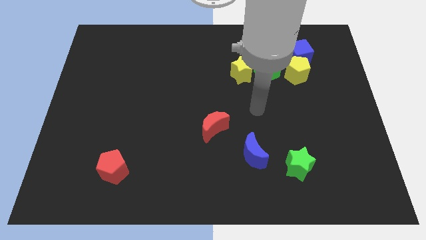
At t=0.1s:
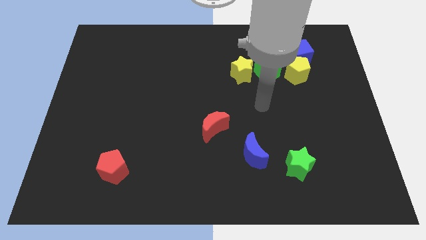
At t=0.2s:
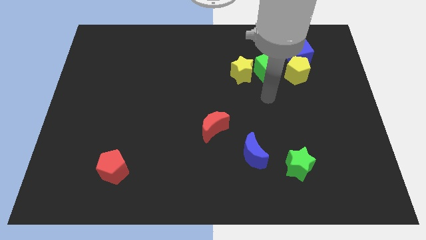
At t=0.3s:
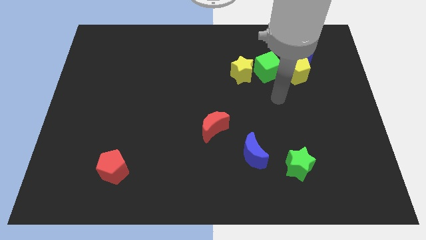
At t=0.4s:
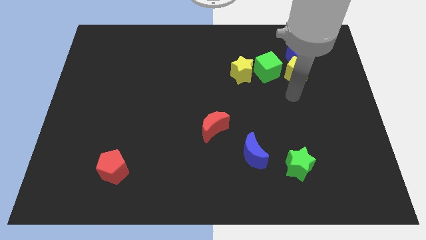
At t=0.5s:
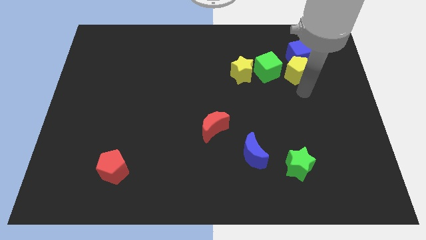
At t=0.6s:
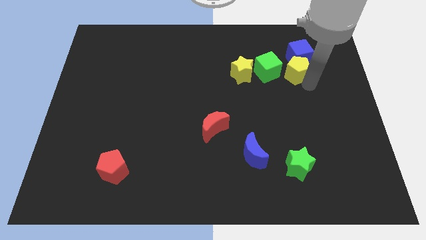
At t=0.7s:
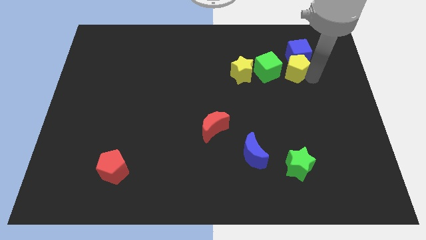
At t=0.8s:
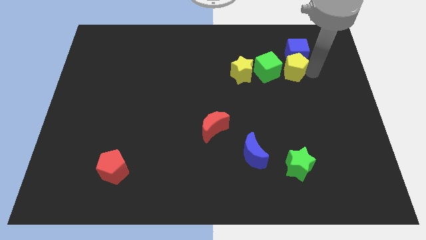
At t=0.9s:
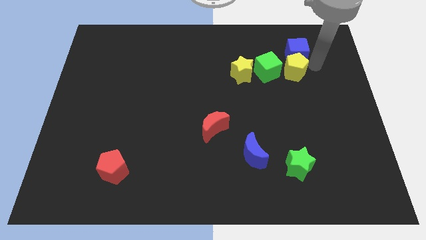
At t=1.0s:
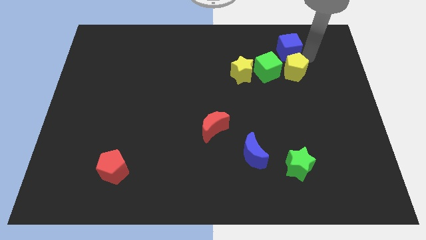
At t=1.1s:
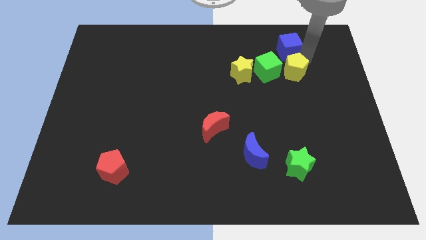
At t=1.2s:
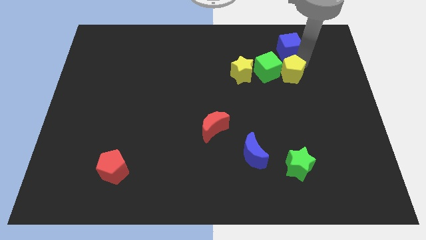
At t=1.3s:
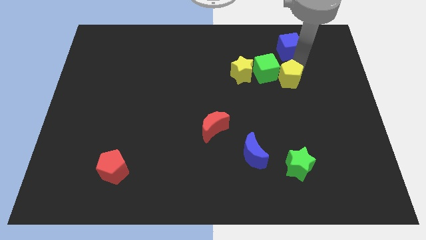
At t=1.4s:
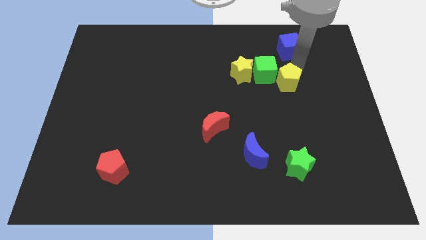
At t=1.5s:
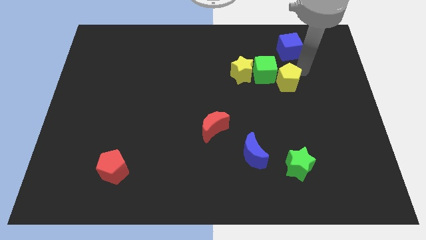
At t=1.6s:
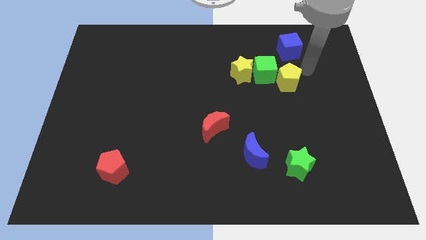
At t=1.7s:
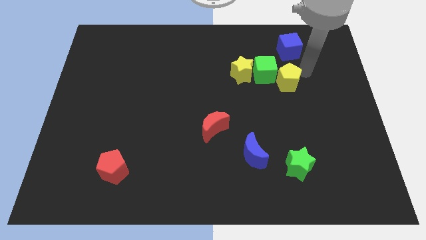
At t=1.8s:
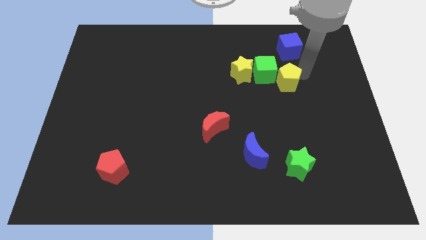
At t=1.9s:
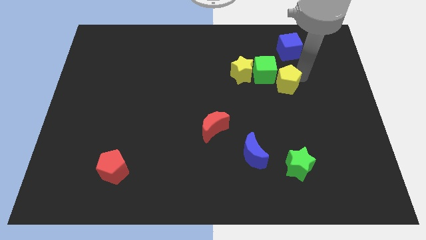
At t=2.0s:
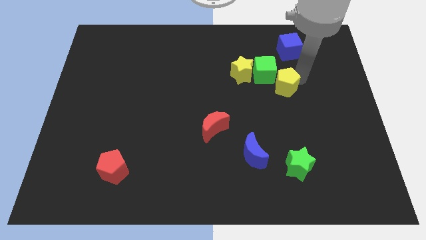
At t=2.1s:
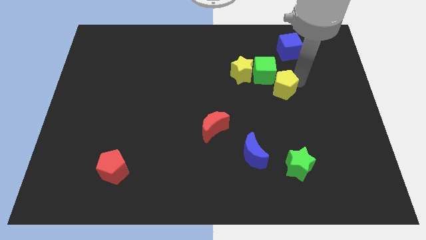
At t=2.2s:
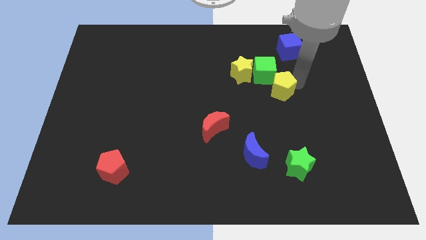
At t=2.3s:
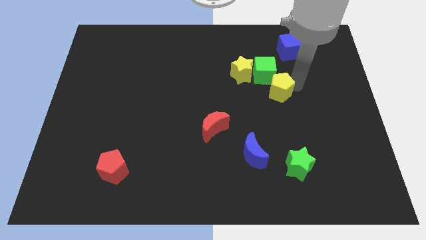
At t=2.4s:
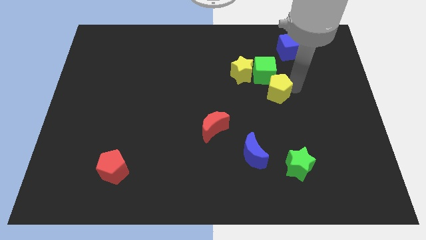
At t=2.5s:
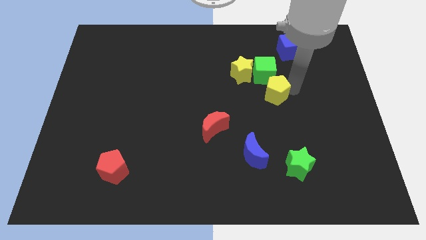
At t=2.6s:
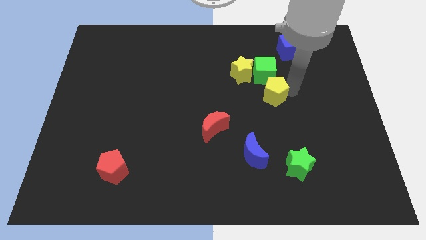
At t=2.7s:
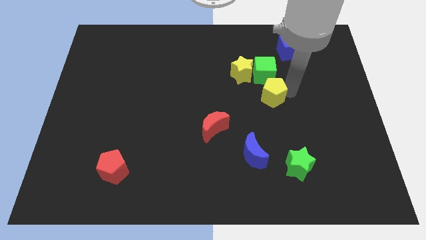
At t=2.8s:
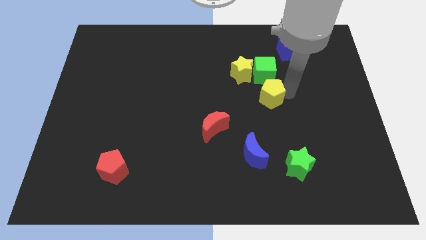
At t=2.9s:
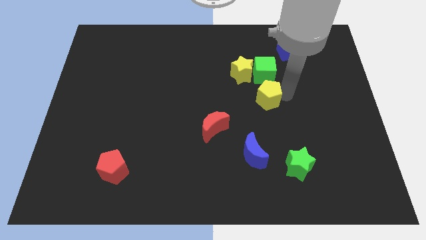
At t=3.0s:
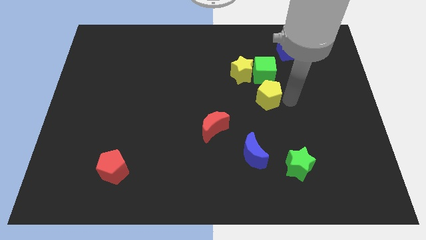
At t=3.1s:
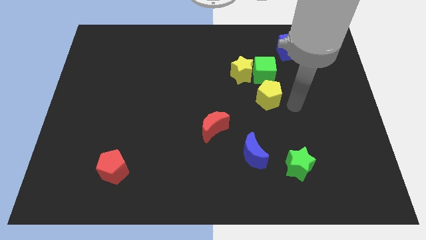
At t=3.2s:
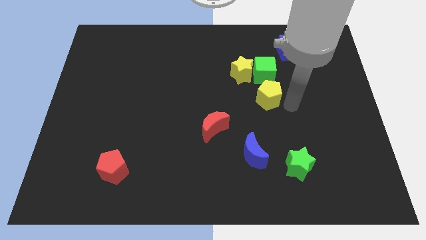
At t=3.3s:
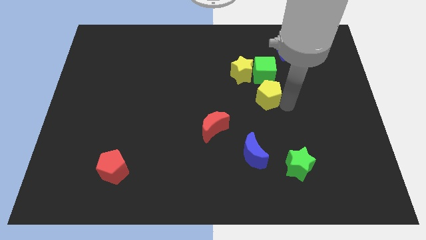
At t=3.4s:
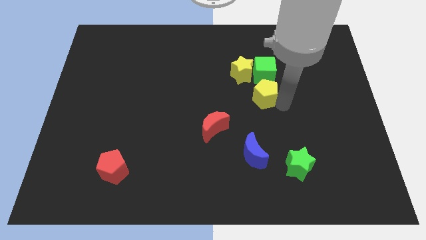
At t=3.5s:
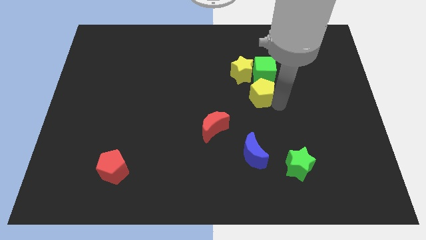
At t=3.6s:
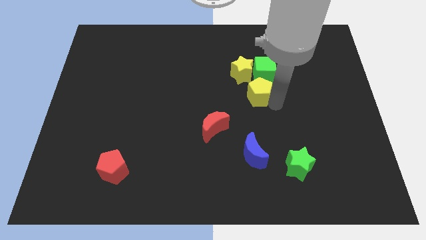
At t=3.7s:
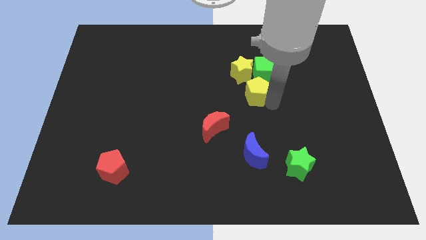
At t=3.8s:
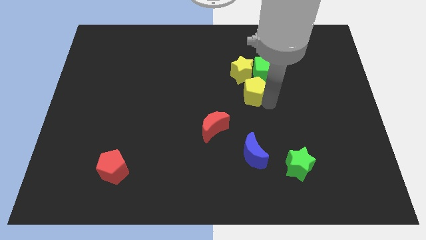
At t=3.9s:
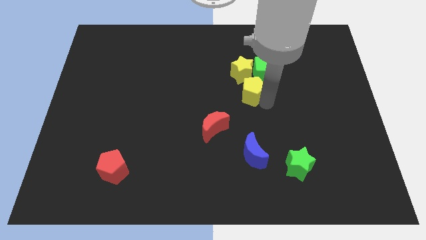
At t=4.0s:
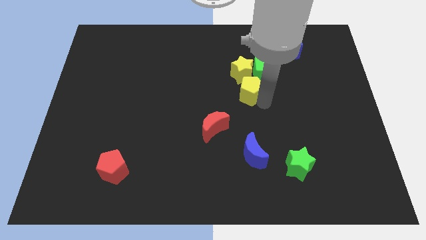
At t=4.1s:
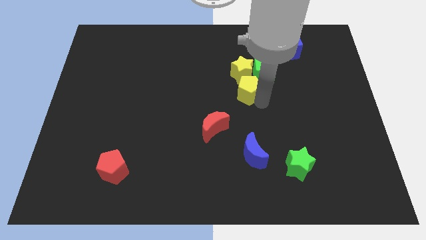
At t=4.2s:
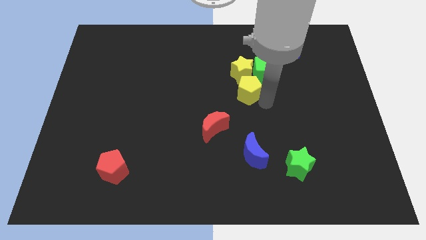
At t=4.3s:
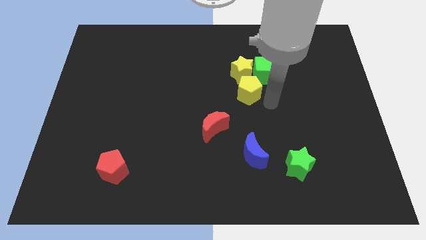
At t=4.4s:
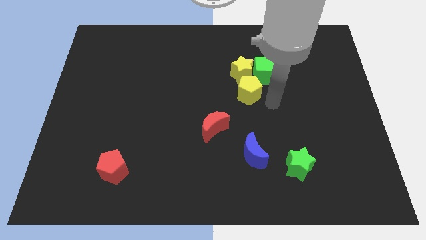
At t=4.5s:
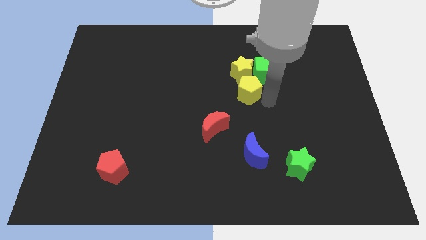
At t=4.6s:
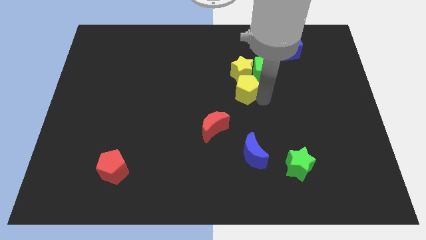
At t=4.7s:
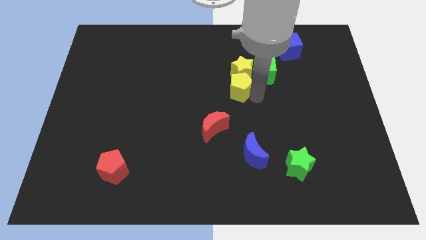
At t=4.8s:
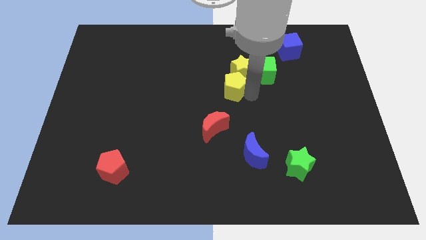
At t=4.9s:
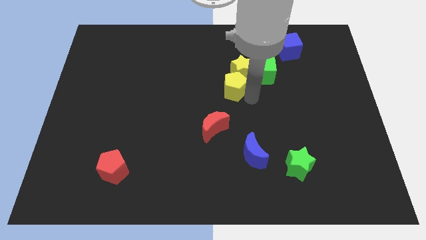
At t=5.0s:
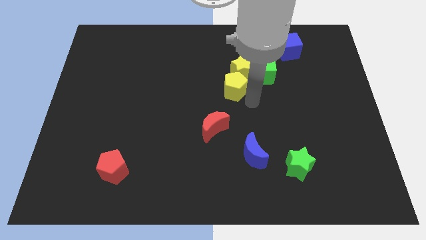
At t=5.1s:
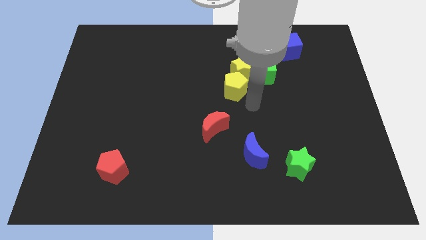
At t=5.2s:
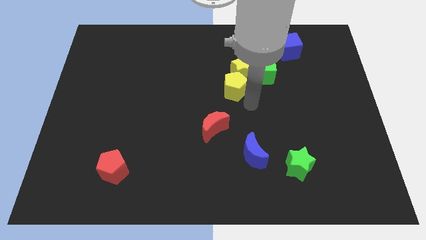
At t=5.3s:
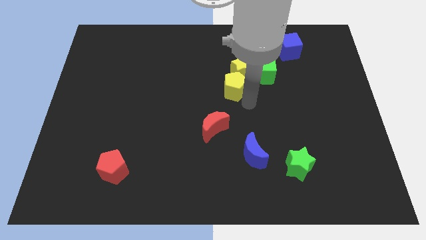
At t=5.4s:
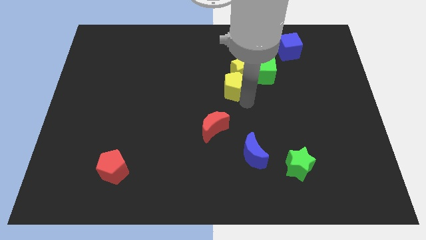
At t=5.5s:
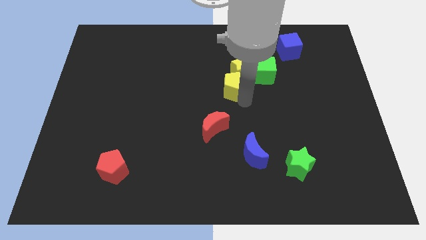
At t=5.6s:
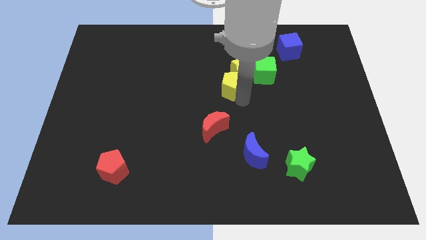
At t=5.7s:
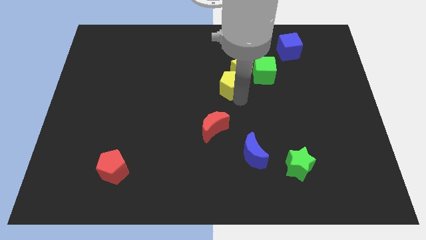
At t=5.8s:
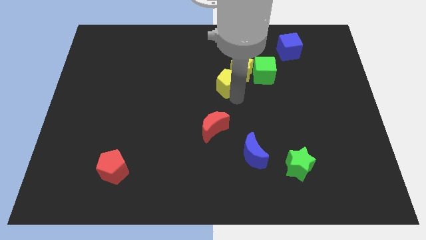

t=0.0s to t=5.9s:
slide the yellow pentagon to the left of the yellow star

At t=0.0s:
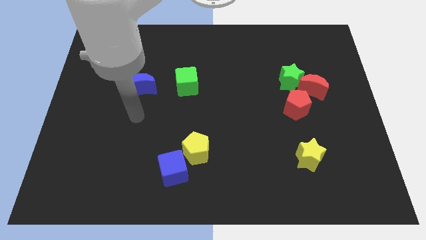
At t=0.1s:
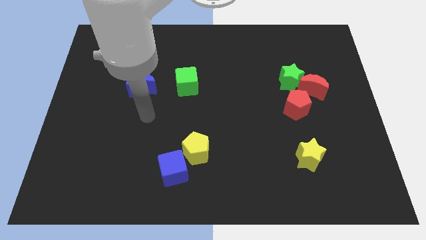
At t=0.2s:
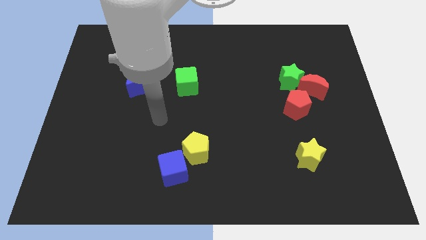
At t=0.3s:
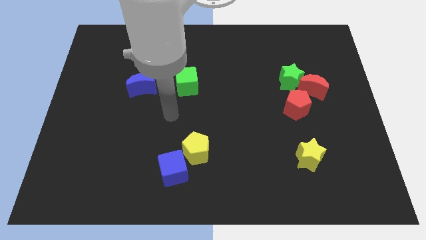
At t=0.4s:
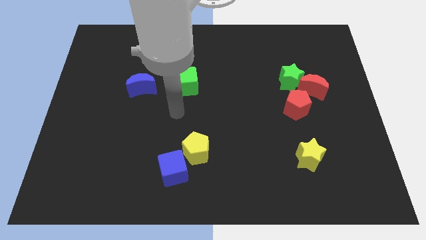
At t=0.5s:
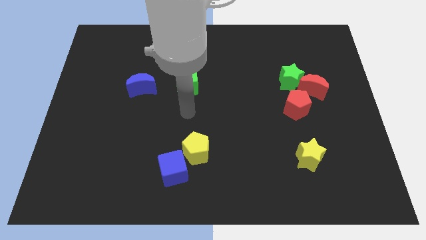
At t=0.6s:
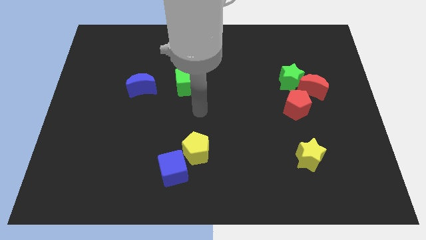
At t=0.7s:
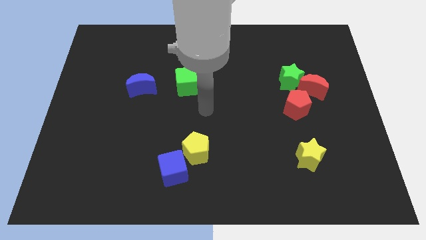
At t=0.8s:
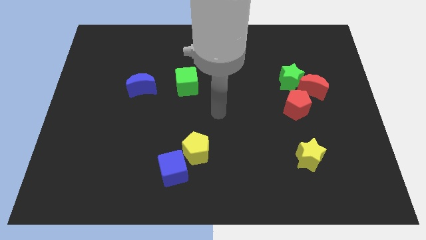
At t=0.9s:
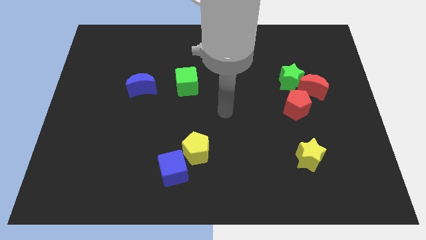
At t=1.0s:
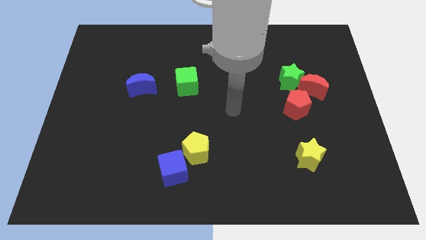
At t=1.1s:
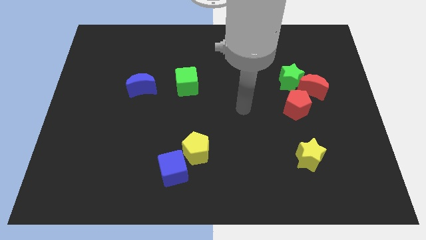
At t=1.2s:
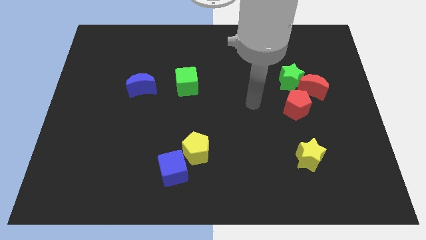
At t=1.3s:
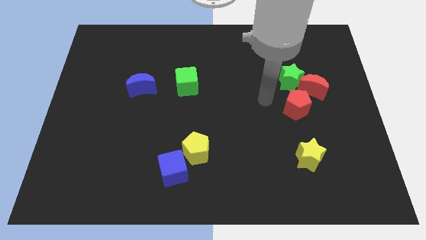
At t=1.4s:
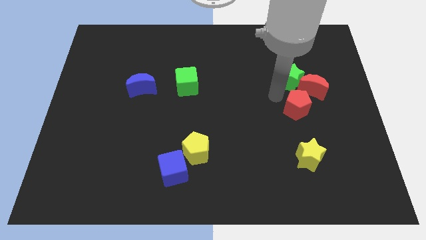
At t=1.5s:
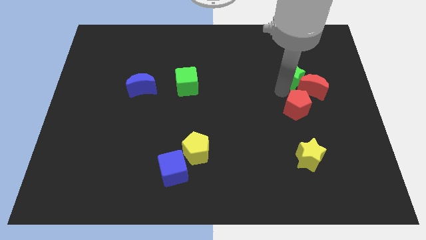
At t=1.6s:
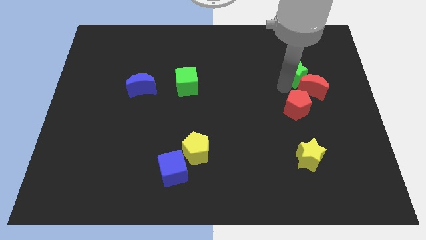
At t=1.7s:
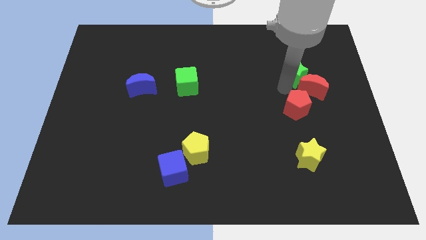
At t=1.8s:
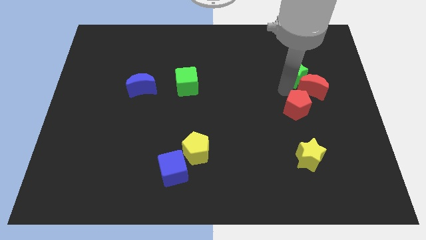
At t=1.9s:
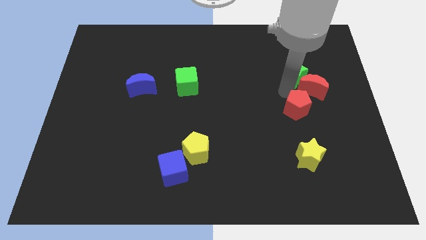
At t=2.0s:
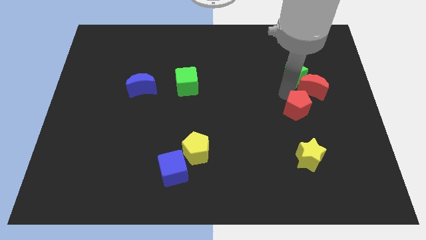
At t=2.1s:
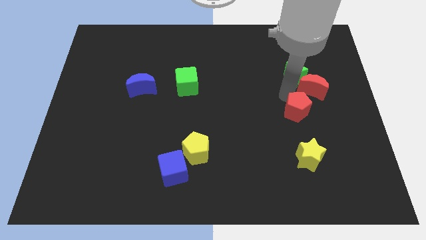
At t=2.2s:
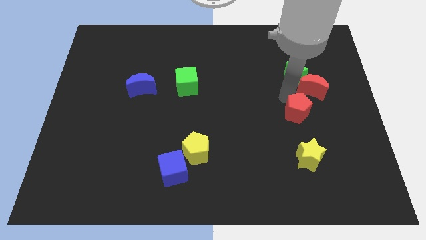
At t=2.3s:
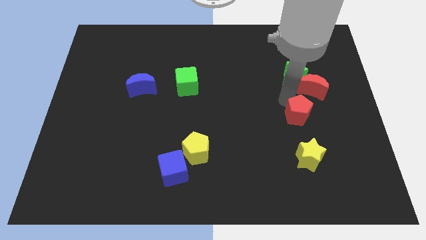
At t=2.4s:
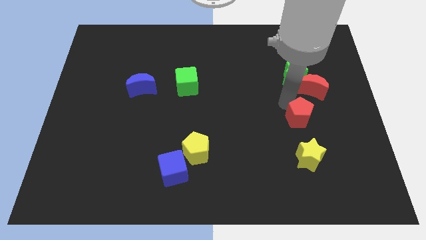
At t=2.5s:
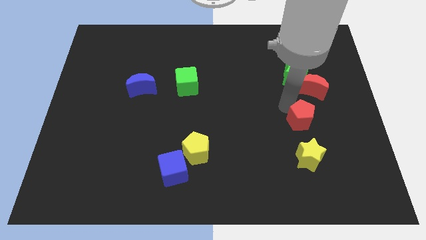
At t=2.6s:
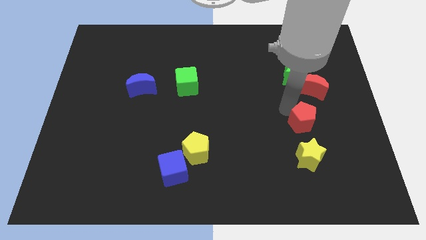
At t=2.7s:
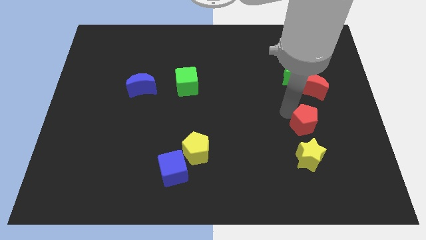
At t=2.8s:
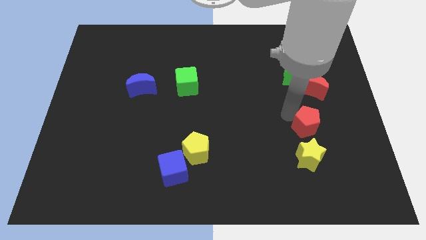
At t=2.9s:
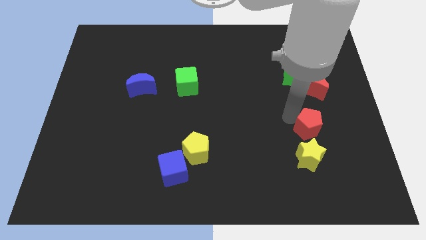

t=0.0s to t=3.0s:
put the red pentagon diagonally up and to the right of the yellow star
